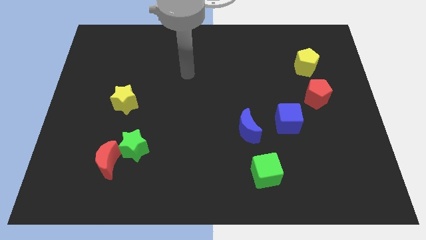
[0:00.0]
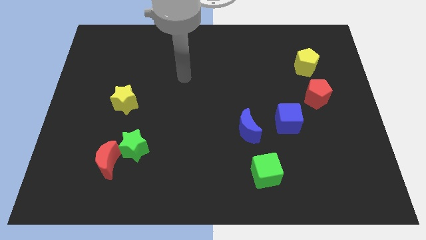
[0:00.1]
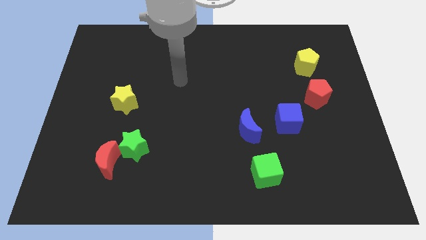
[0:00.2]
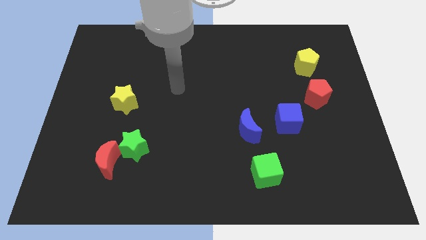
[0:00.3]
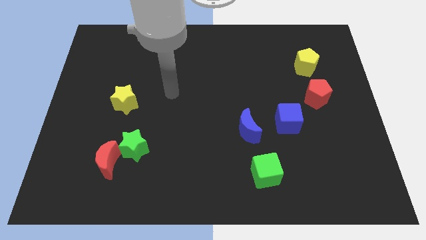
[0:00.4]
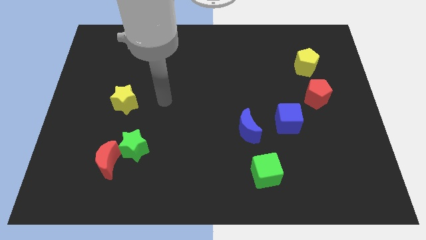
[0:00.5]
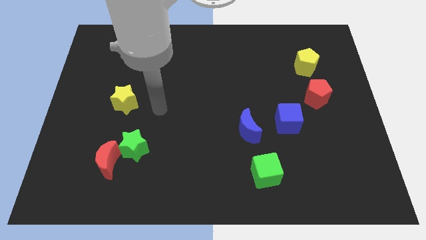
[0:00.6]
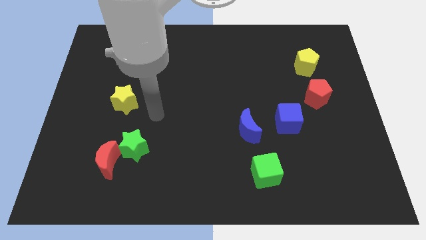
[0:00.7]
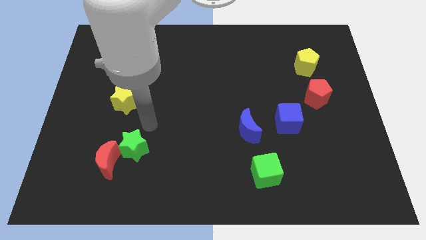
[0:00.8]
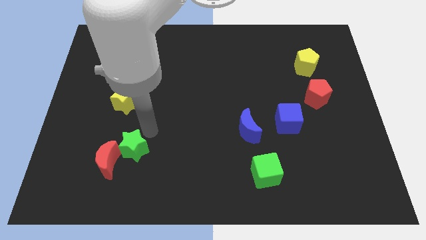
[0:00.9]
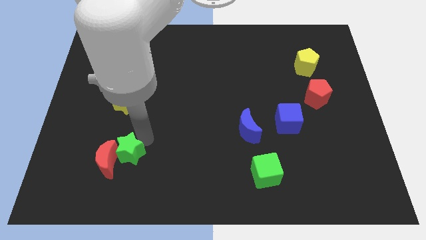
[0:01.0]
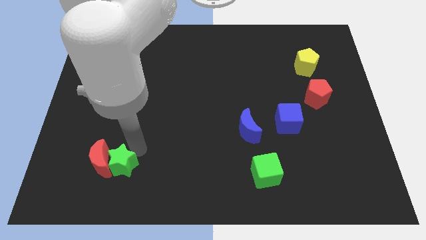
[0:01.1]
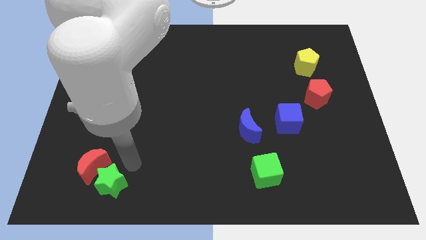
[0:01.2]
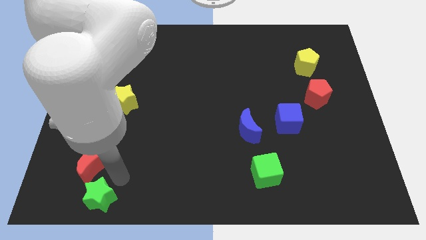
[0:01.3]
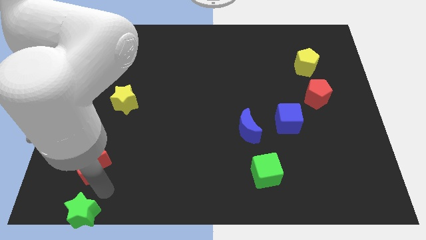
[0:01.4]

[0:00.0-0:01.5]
pull the red moon apart from the green star

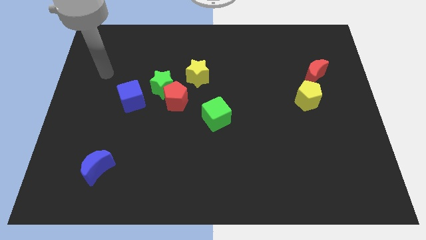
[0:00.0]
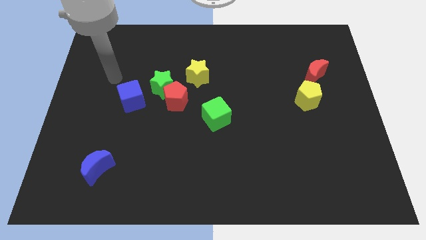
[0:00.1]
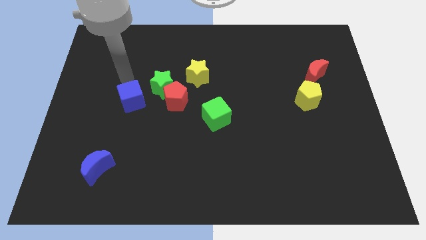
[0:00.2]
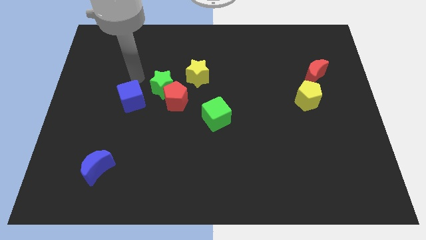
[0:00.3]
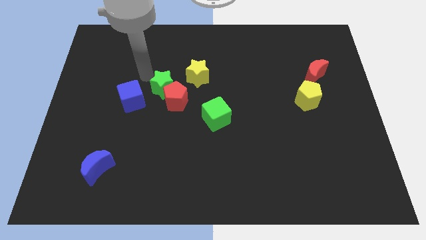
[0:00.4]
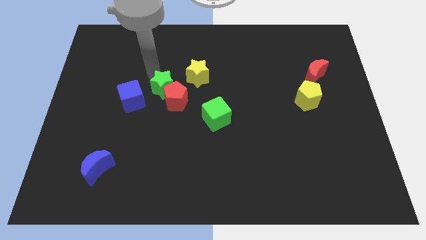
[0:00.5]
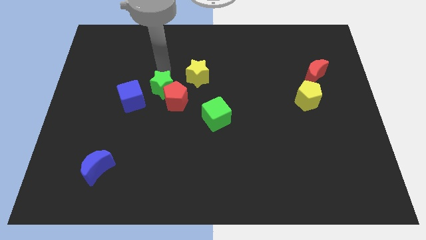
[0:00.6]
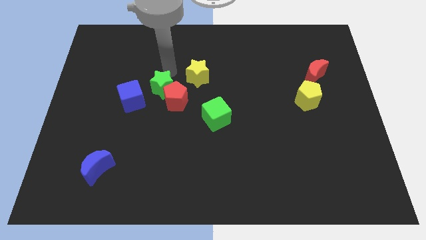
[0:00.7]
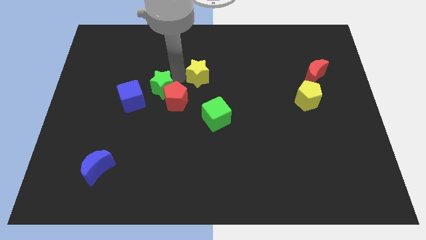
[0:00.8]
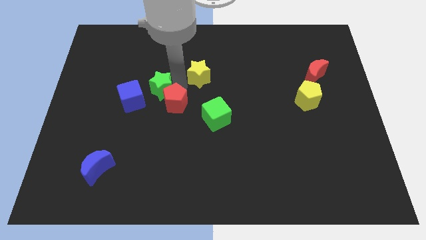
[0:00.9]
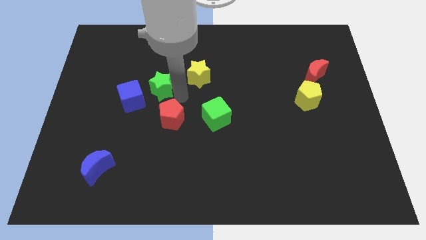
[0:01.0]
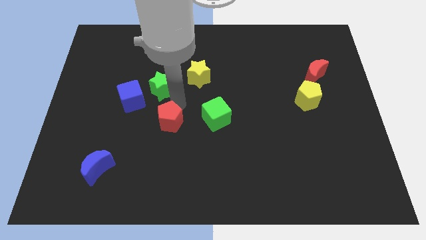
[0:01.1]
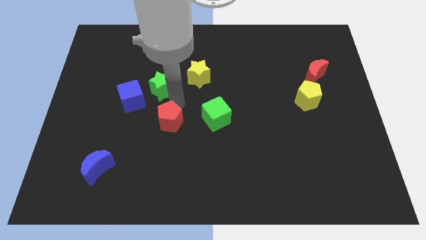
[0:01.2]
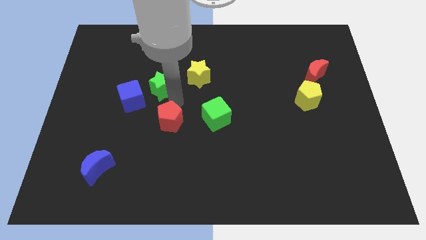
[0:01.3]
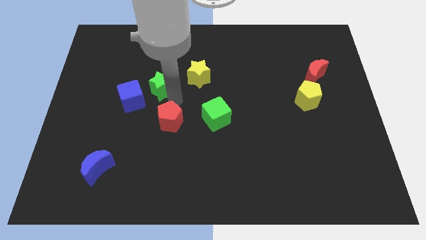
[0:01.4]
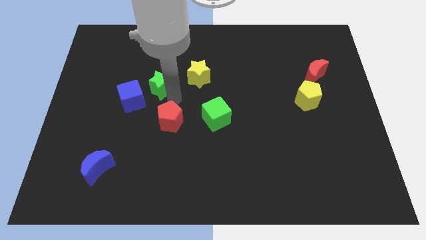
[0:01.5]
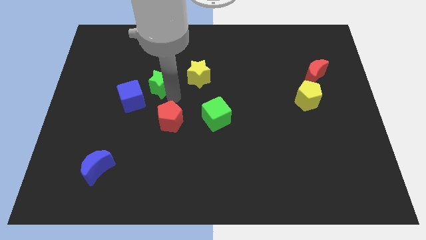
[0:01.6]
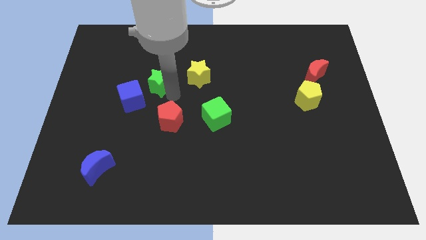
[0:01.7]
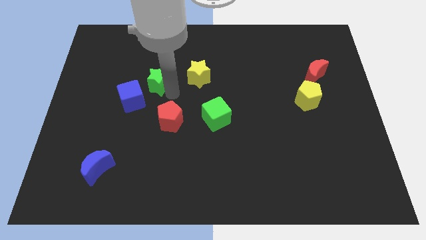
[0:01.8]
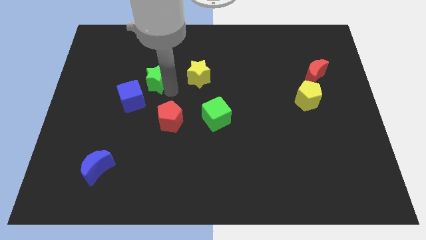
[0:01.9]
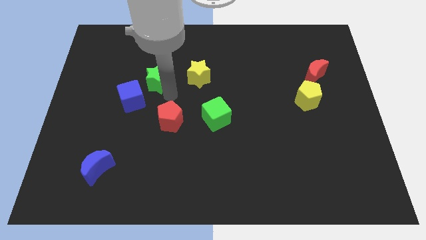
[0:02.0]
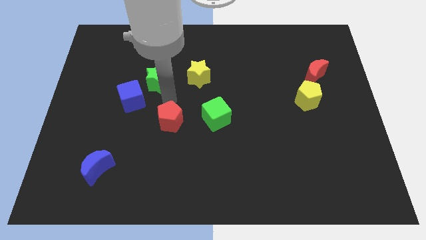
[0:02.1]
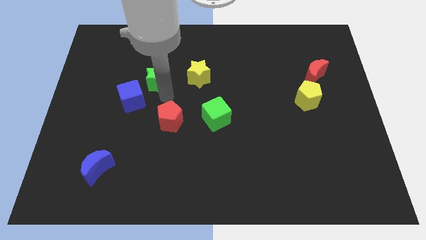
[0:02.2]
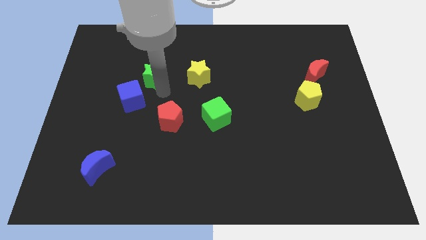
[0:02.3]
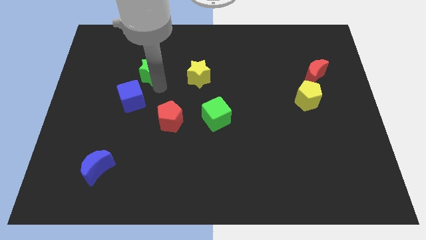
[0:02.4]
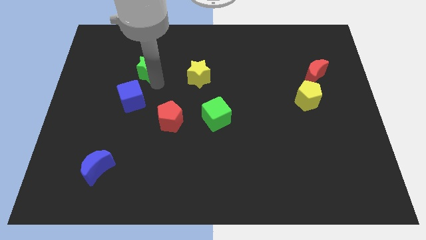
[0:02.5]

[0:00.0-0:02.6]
move the green star away from the red pentagon, blue cube, and yellow star

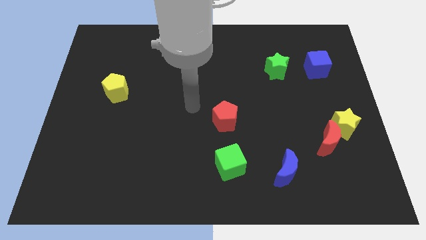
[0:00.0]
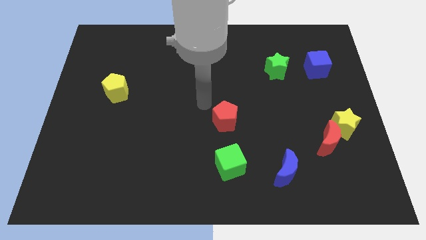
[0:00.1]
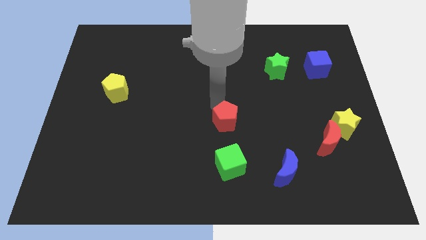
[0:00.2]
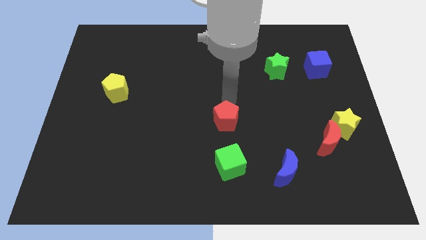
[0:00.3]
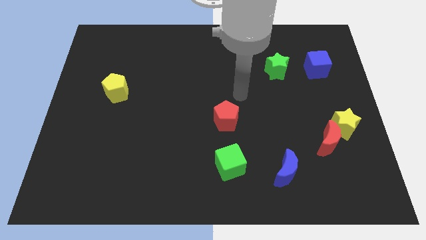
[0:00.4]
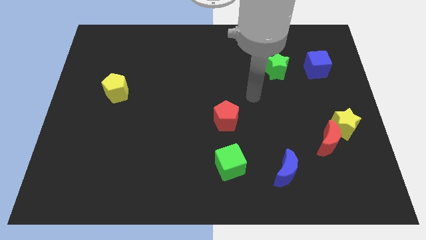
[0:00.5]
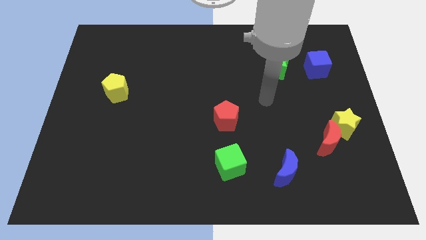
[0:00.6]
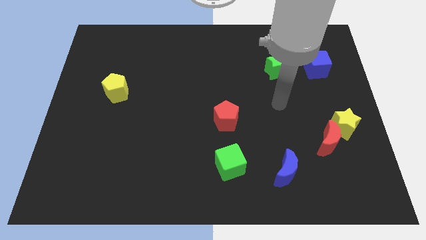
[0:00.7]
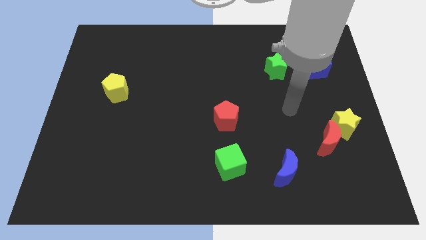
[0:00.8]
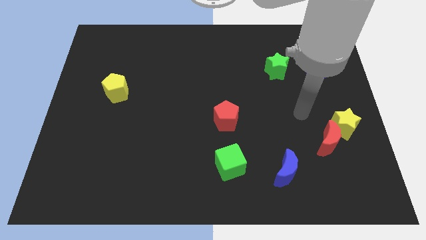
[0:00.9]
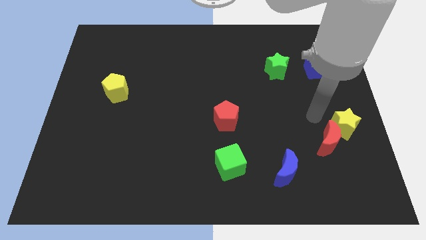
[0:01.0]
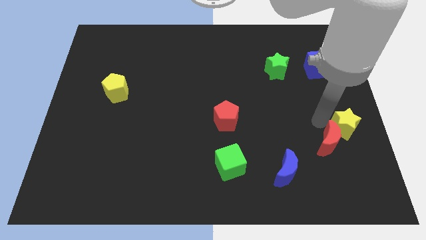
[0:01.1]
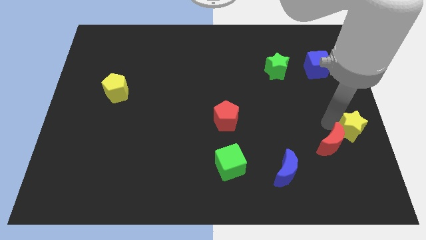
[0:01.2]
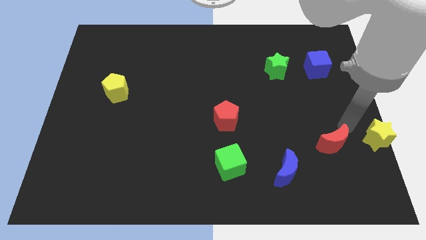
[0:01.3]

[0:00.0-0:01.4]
separate the red moon from the yellow star

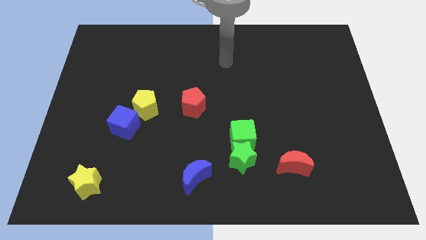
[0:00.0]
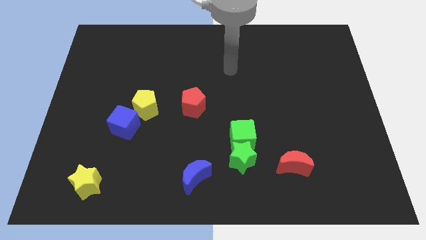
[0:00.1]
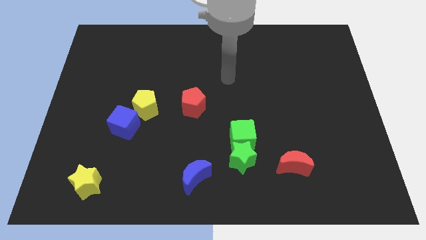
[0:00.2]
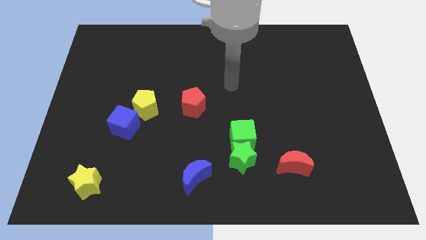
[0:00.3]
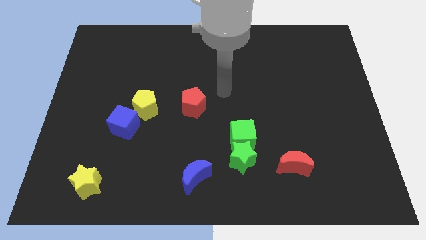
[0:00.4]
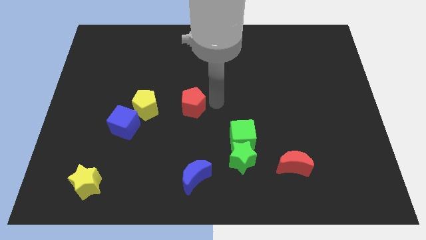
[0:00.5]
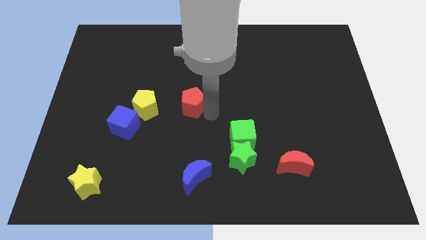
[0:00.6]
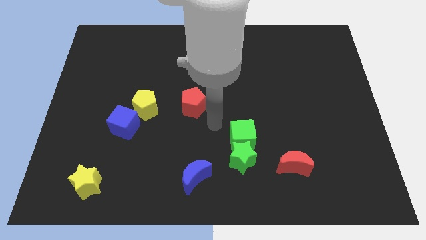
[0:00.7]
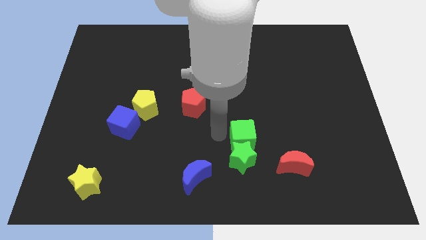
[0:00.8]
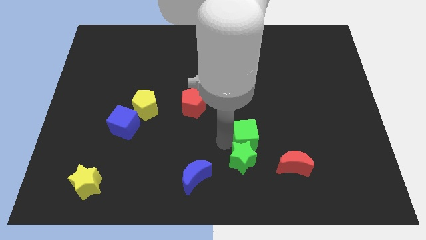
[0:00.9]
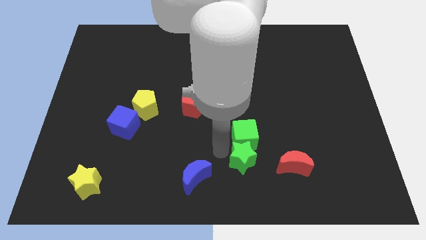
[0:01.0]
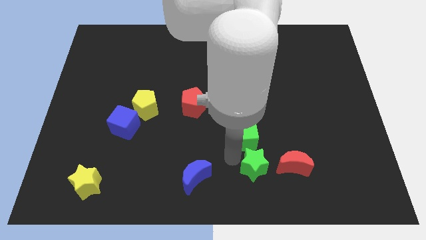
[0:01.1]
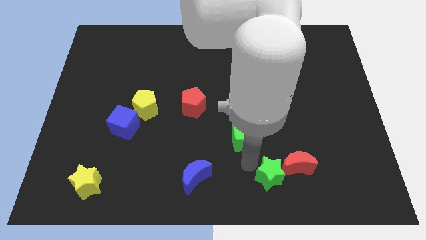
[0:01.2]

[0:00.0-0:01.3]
separate the green cube from the green star

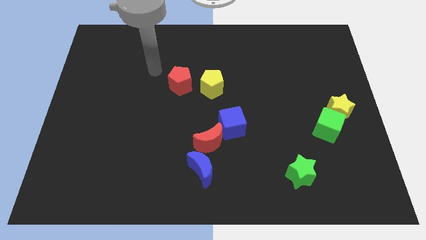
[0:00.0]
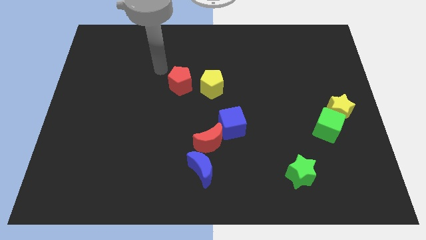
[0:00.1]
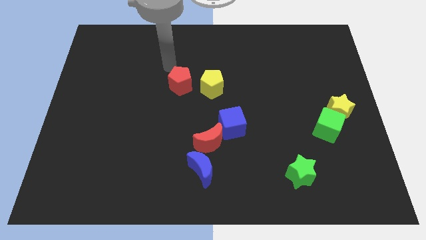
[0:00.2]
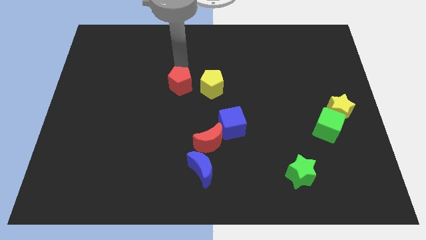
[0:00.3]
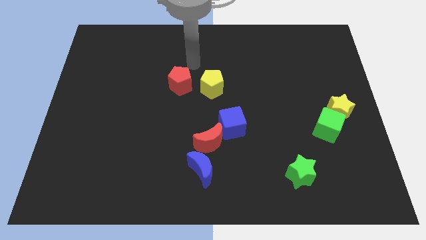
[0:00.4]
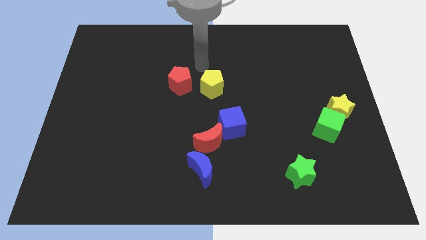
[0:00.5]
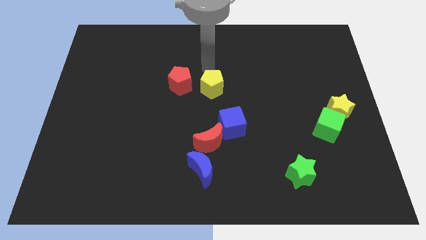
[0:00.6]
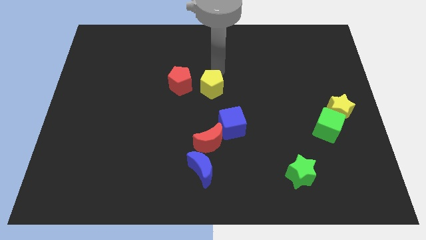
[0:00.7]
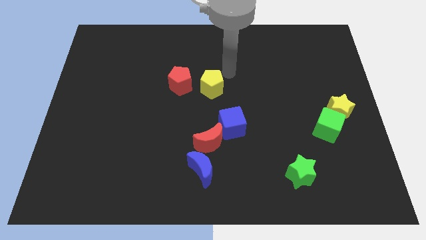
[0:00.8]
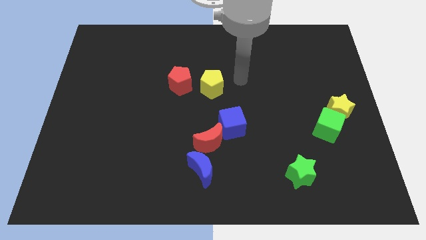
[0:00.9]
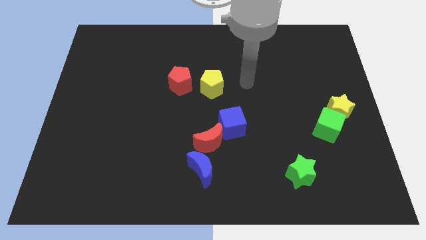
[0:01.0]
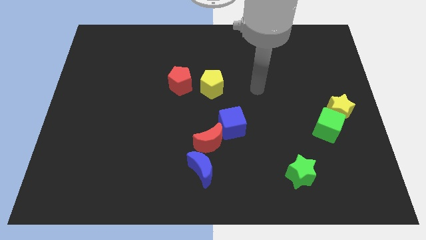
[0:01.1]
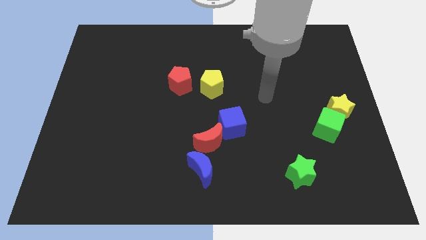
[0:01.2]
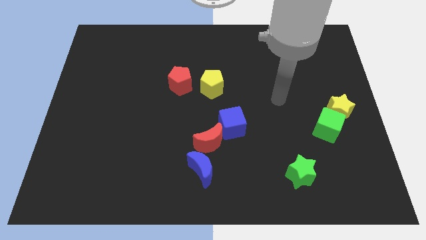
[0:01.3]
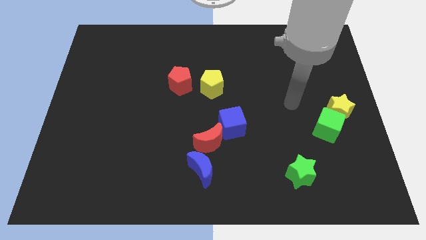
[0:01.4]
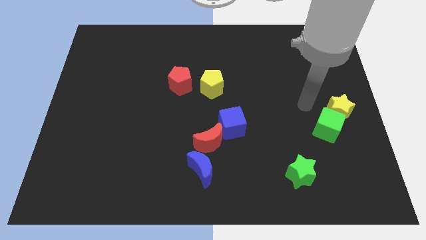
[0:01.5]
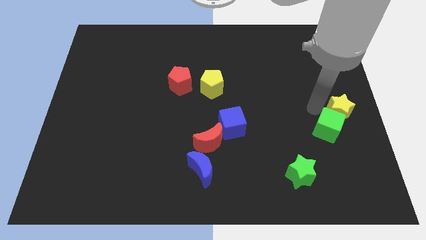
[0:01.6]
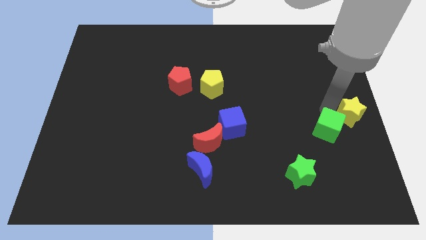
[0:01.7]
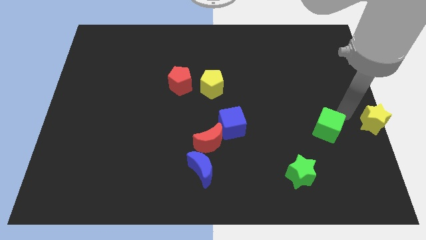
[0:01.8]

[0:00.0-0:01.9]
separate the green cube from the yellow star

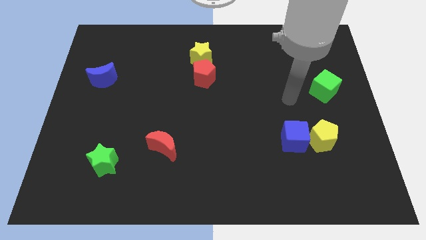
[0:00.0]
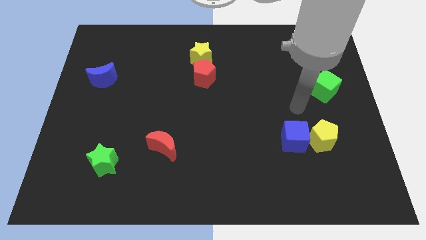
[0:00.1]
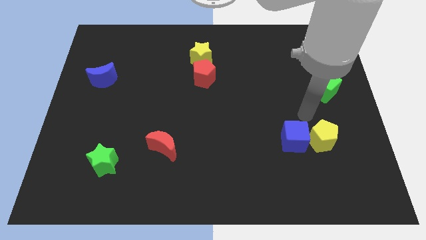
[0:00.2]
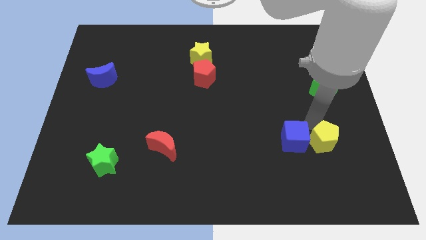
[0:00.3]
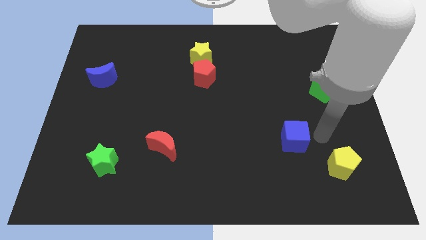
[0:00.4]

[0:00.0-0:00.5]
pull the blue cube apart from the yellow pentagon
